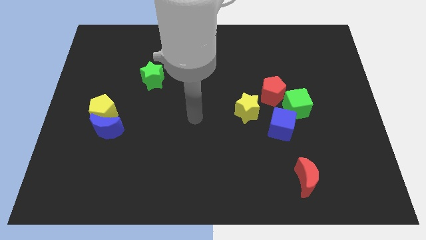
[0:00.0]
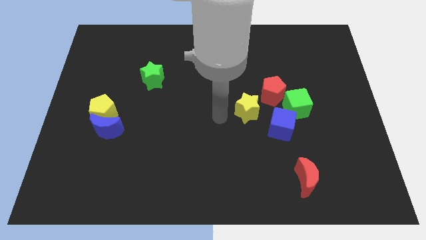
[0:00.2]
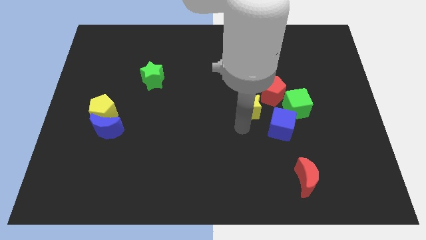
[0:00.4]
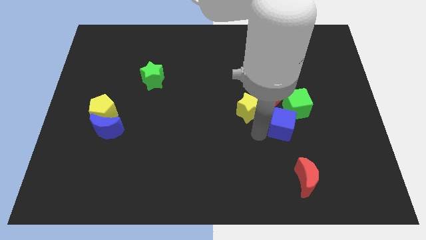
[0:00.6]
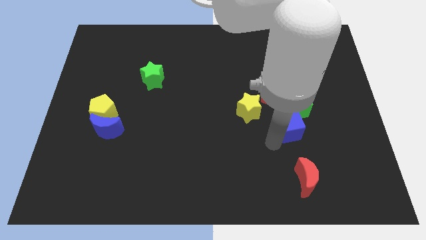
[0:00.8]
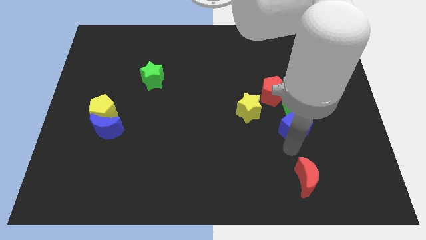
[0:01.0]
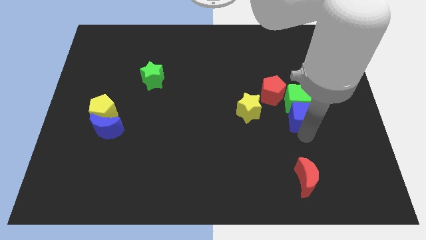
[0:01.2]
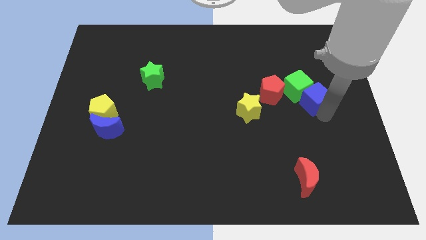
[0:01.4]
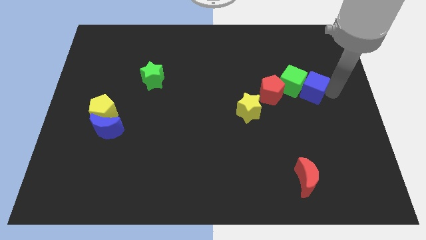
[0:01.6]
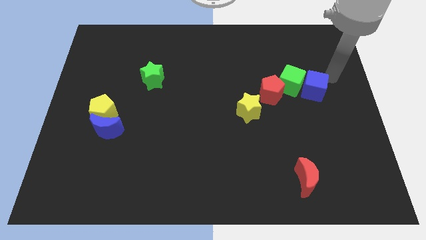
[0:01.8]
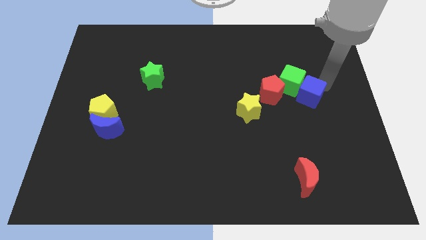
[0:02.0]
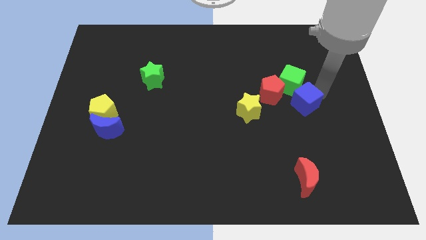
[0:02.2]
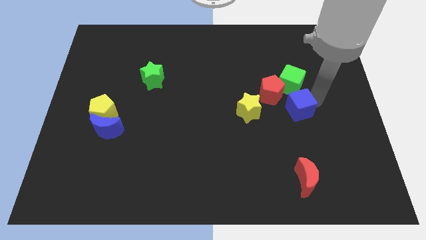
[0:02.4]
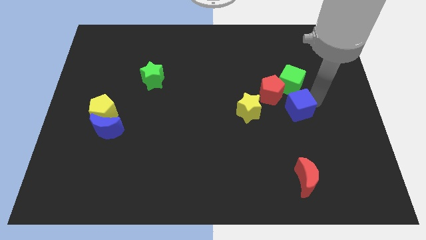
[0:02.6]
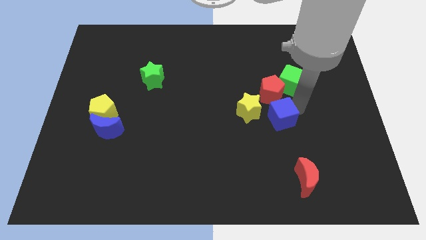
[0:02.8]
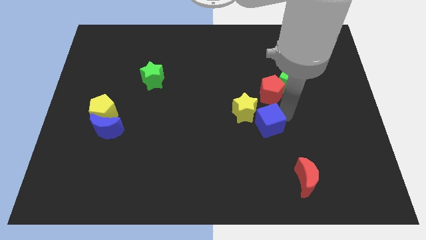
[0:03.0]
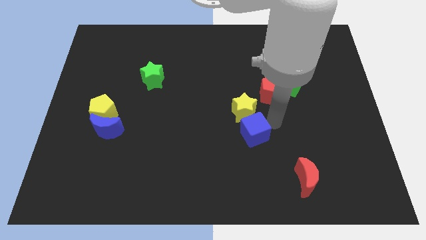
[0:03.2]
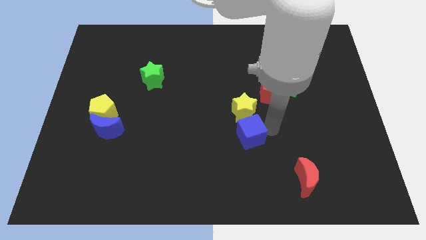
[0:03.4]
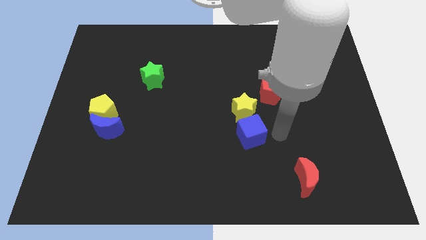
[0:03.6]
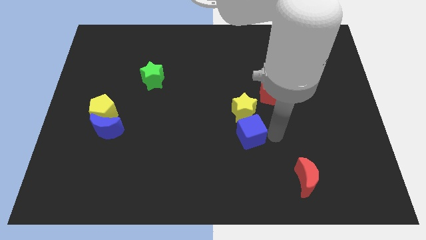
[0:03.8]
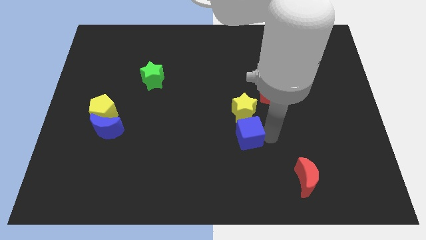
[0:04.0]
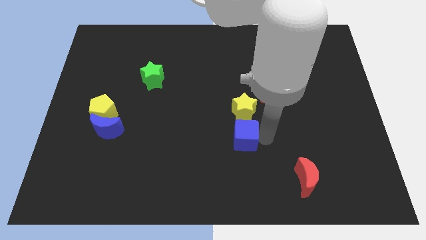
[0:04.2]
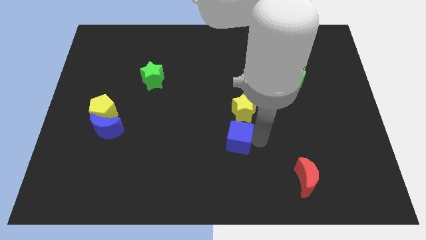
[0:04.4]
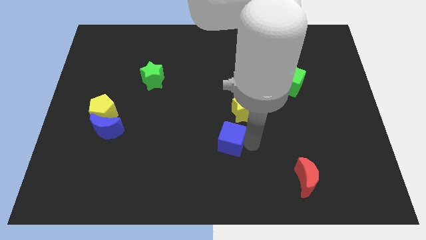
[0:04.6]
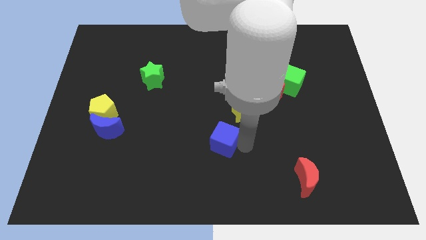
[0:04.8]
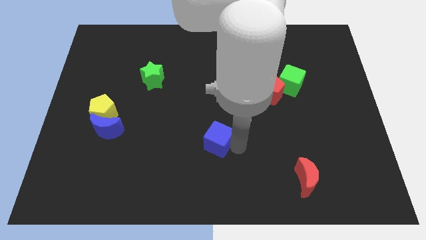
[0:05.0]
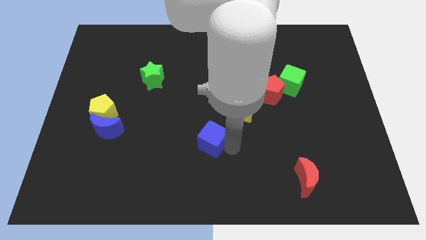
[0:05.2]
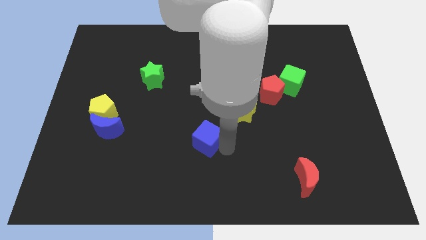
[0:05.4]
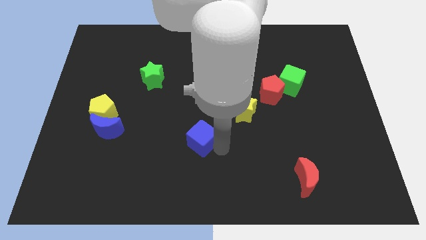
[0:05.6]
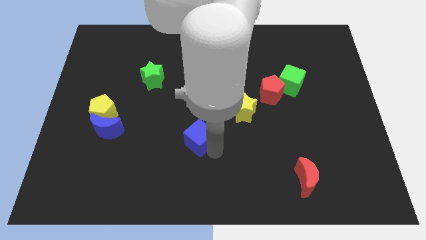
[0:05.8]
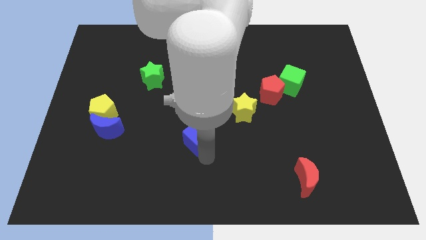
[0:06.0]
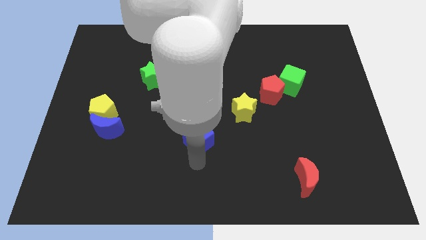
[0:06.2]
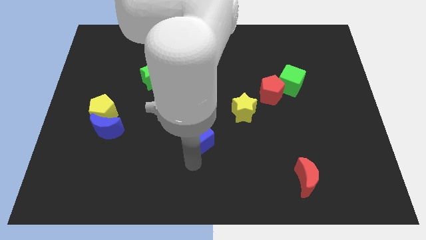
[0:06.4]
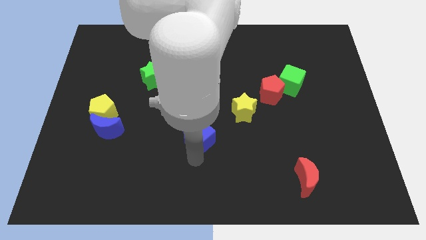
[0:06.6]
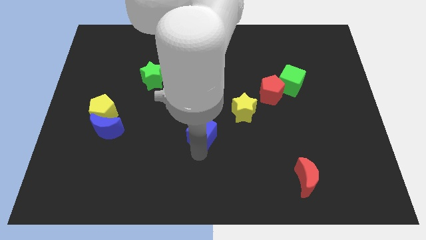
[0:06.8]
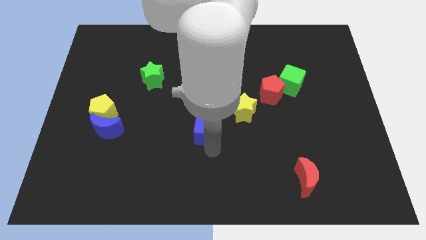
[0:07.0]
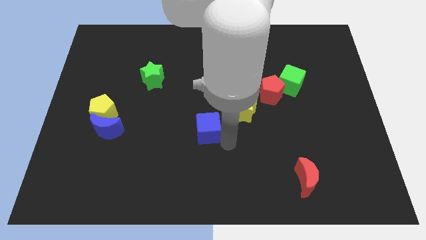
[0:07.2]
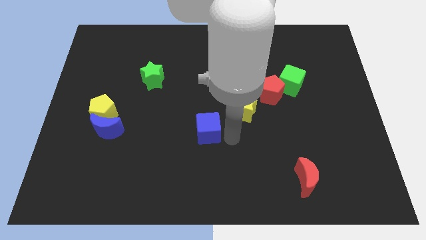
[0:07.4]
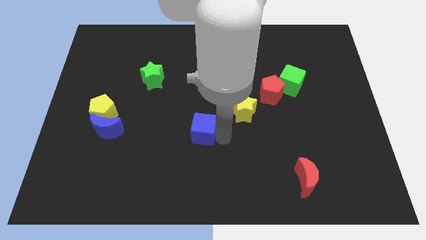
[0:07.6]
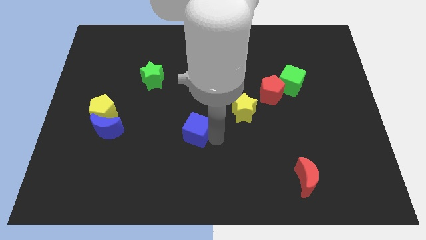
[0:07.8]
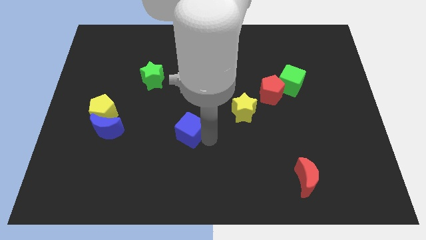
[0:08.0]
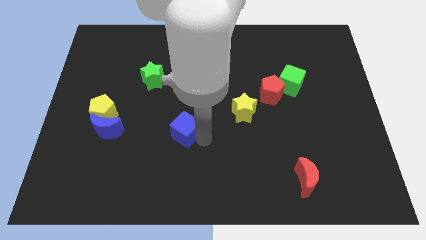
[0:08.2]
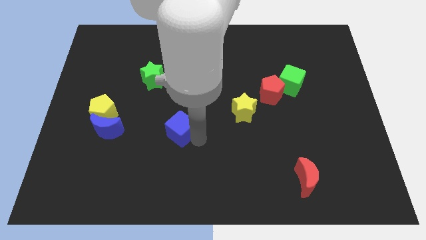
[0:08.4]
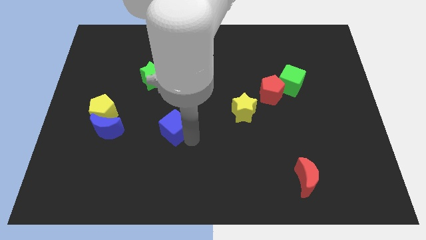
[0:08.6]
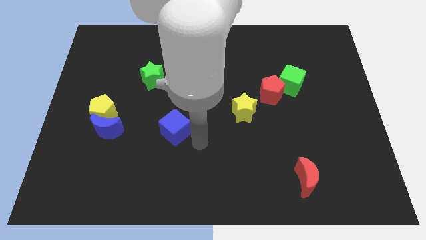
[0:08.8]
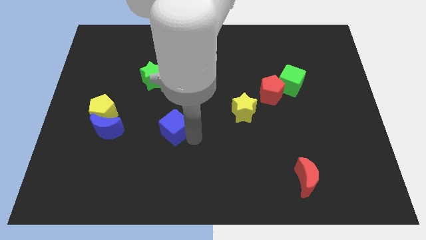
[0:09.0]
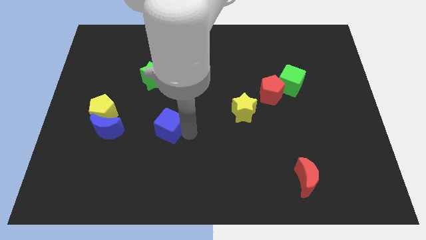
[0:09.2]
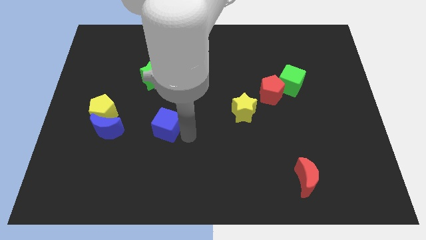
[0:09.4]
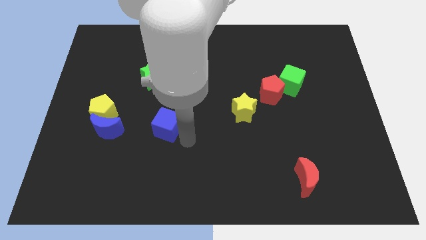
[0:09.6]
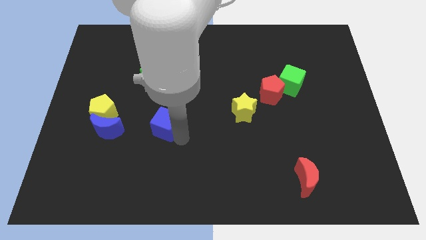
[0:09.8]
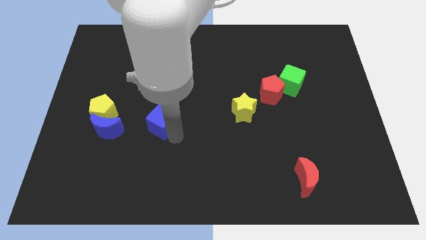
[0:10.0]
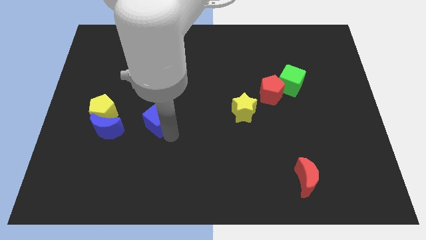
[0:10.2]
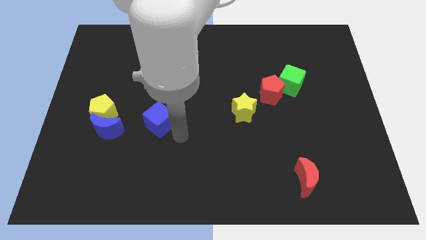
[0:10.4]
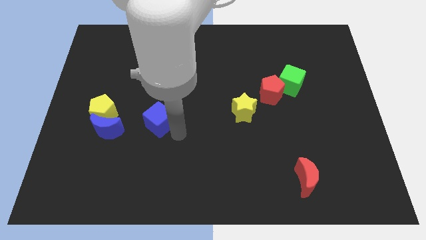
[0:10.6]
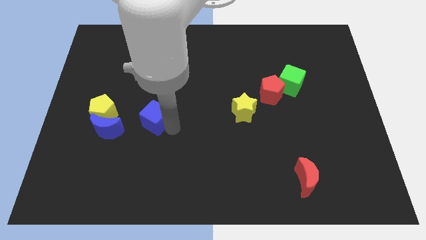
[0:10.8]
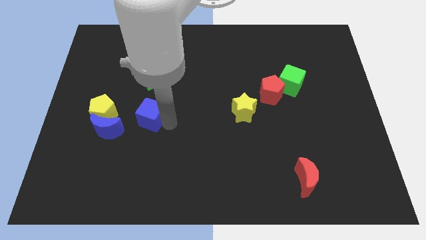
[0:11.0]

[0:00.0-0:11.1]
push the blue cube to the top right of the blue moon

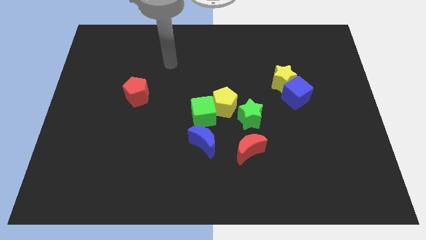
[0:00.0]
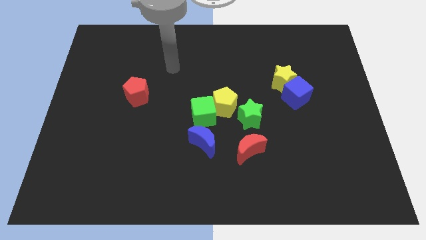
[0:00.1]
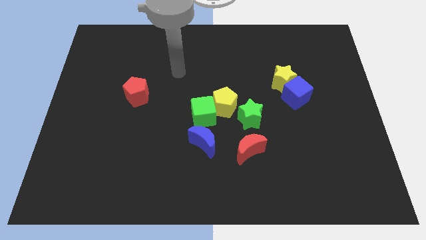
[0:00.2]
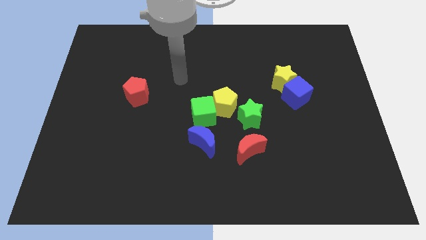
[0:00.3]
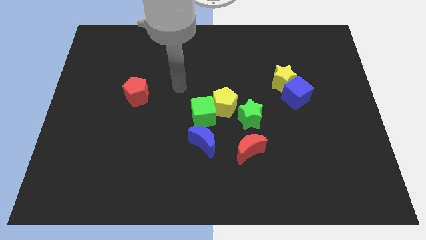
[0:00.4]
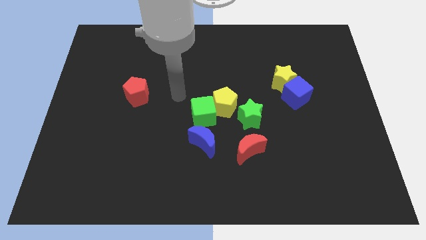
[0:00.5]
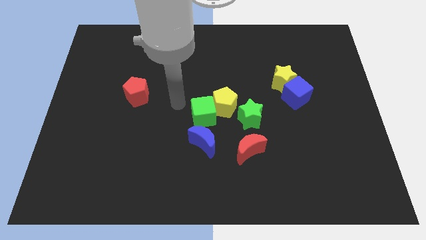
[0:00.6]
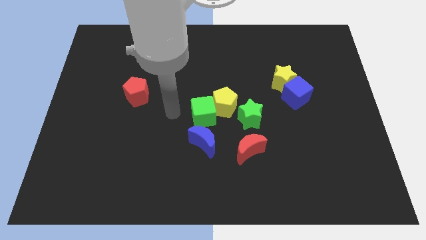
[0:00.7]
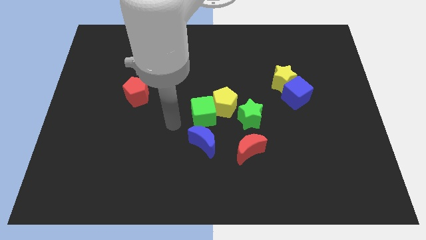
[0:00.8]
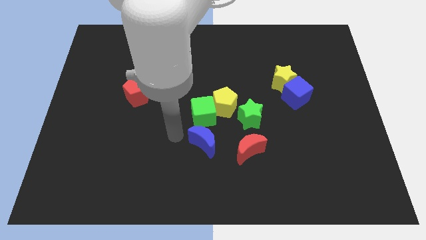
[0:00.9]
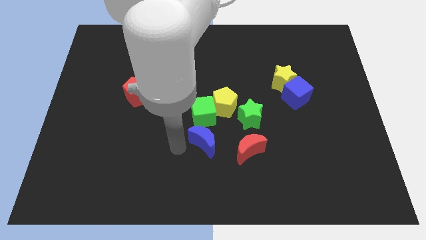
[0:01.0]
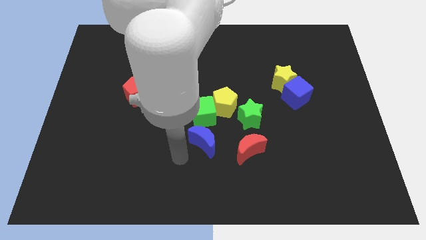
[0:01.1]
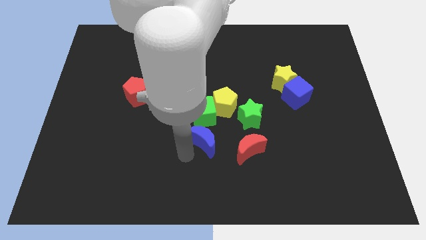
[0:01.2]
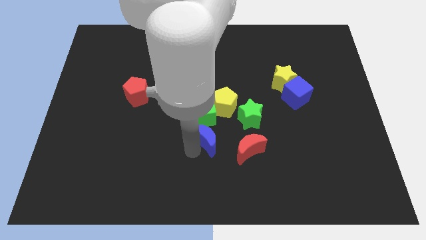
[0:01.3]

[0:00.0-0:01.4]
move the blue moon diagonally up and to the left of the red moon
